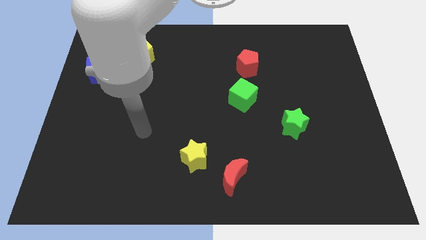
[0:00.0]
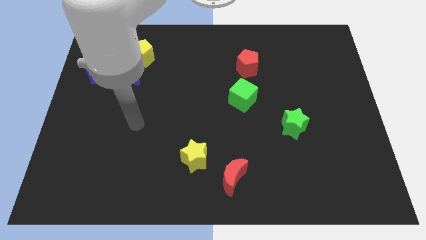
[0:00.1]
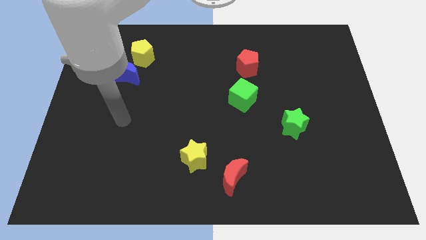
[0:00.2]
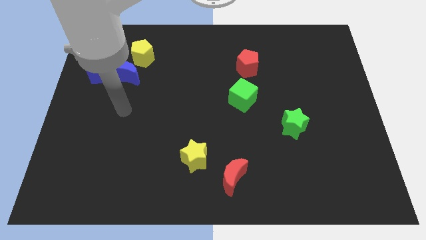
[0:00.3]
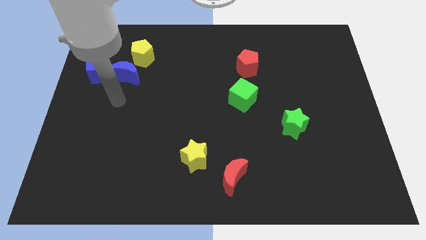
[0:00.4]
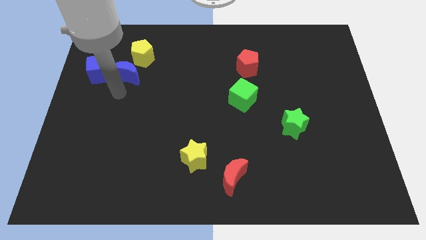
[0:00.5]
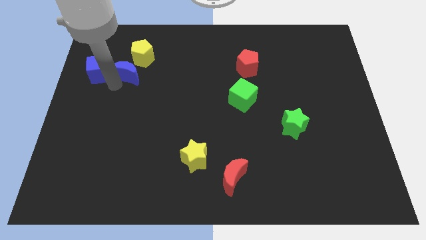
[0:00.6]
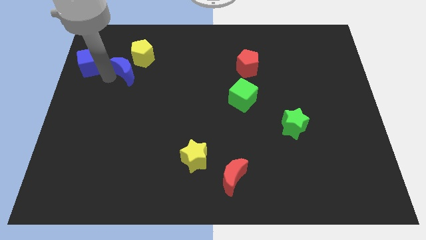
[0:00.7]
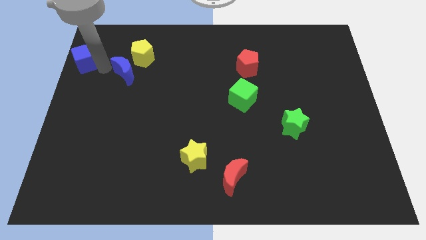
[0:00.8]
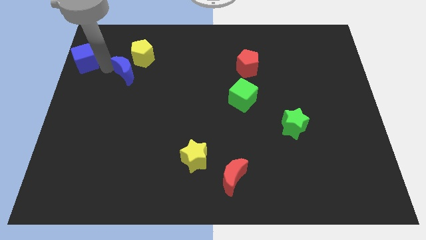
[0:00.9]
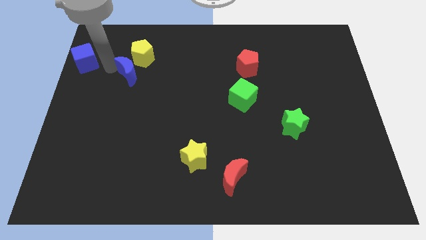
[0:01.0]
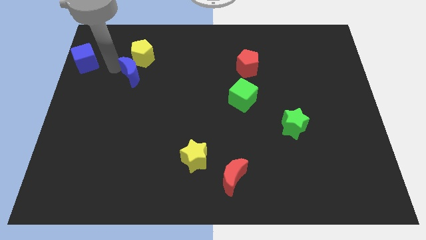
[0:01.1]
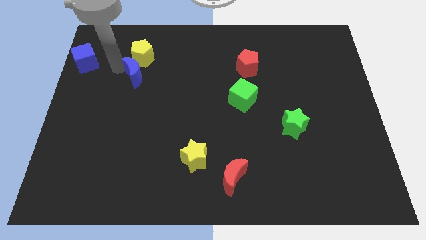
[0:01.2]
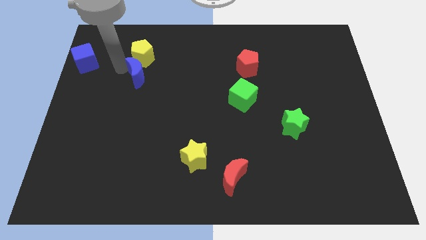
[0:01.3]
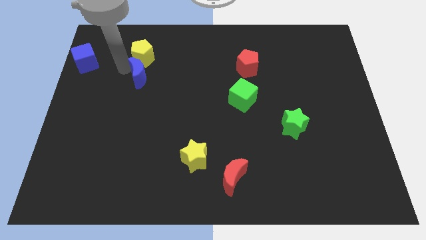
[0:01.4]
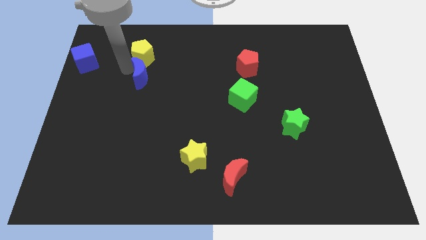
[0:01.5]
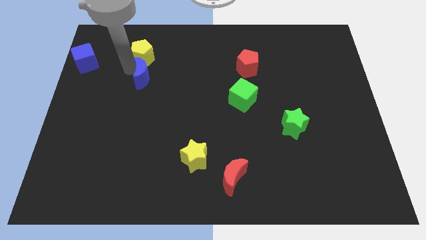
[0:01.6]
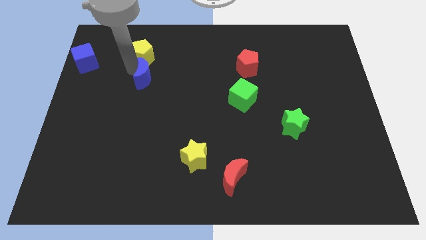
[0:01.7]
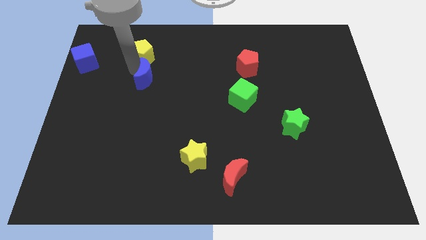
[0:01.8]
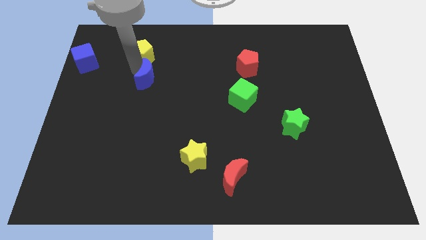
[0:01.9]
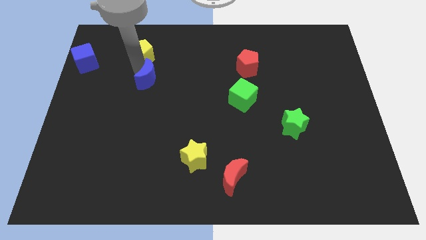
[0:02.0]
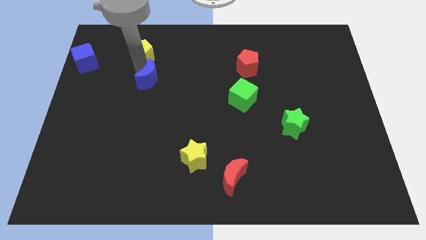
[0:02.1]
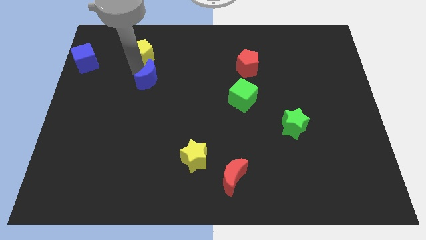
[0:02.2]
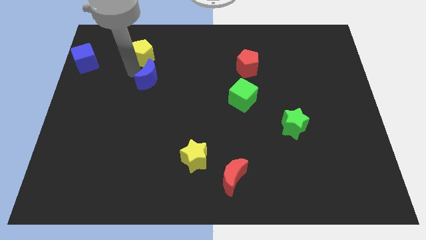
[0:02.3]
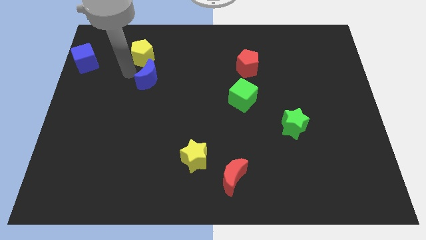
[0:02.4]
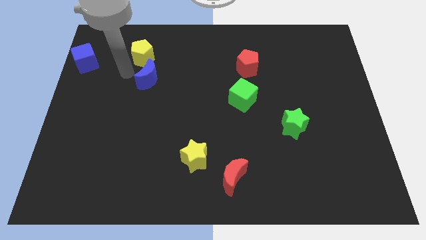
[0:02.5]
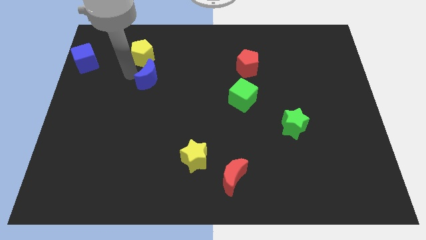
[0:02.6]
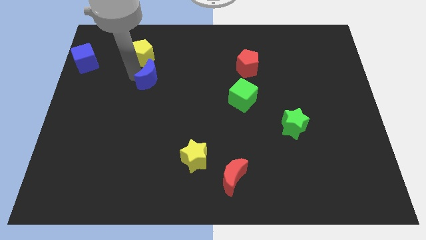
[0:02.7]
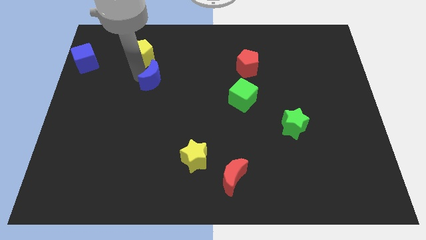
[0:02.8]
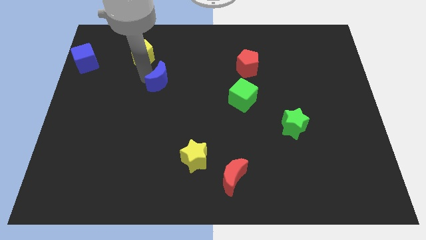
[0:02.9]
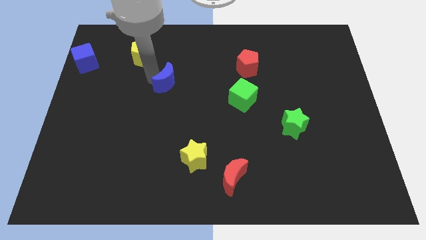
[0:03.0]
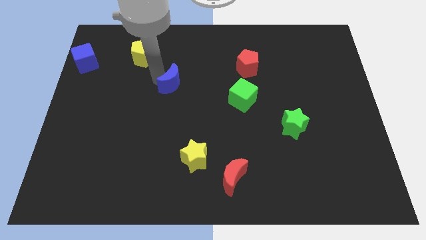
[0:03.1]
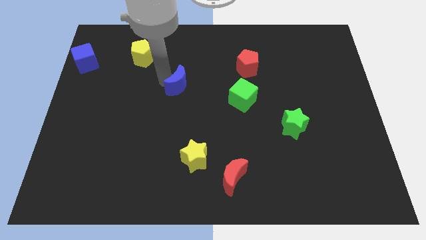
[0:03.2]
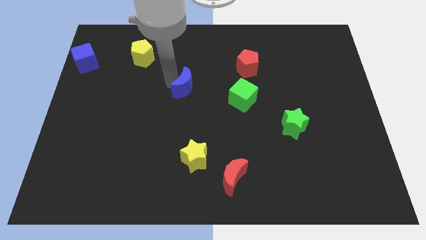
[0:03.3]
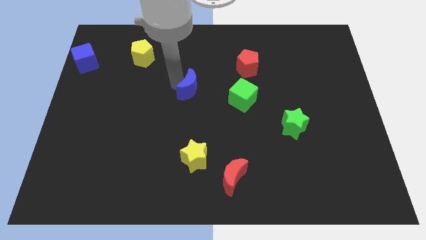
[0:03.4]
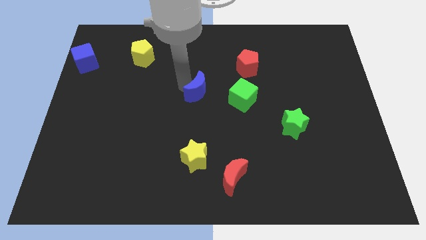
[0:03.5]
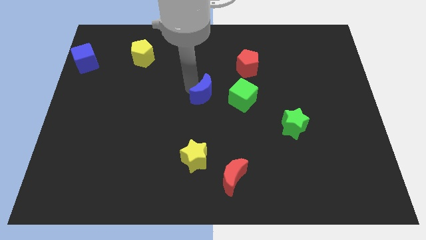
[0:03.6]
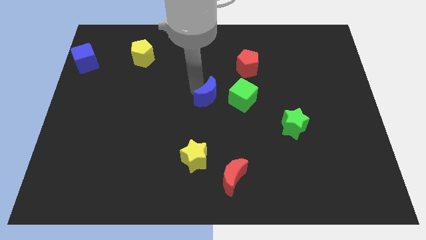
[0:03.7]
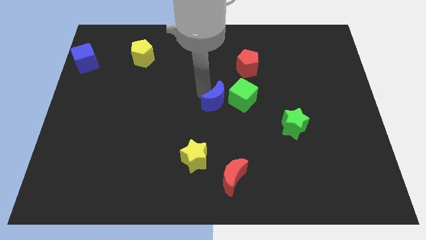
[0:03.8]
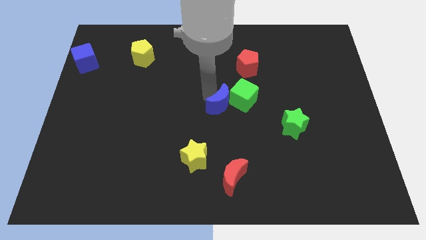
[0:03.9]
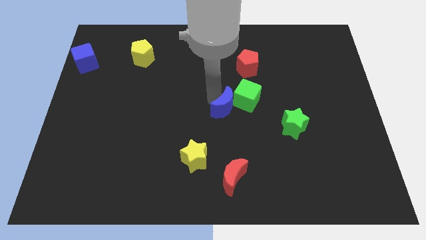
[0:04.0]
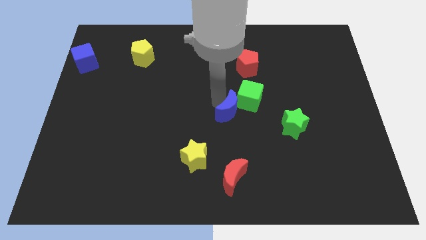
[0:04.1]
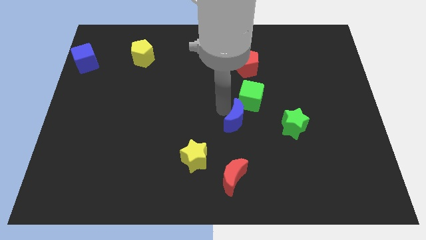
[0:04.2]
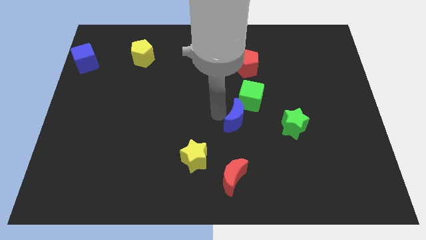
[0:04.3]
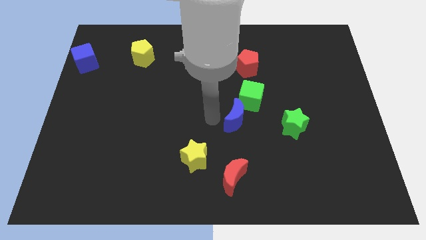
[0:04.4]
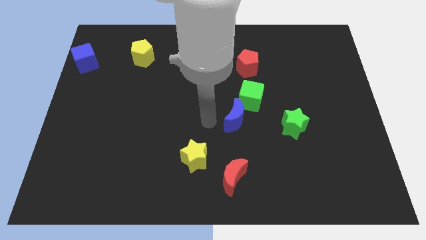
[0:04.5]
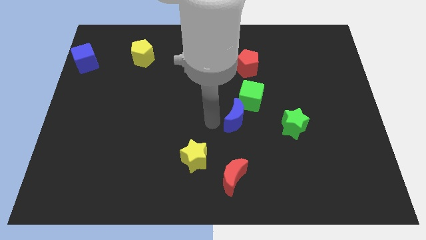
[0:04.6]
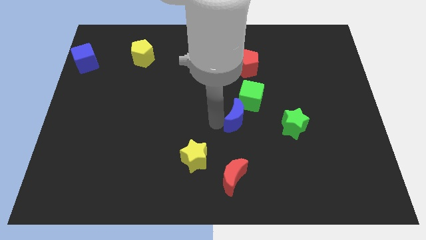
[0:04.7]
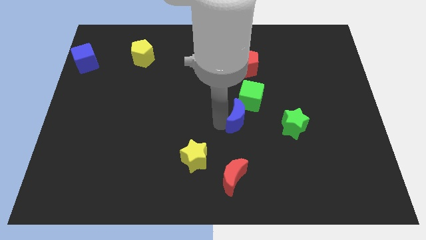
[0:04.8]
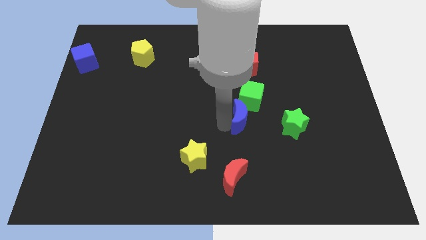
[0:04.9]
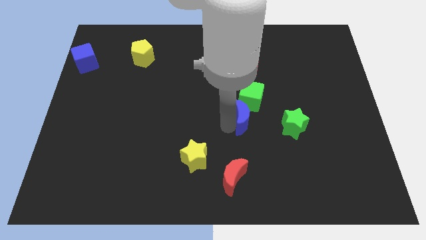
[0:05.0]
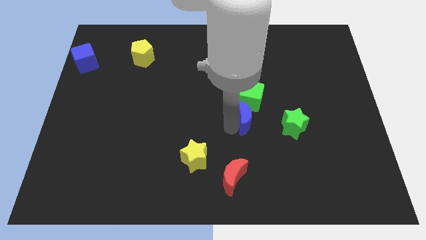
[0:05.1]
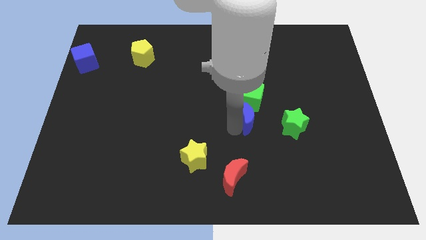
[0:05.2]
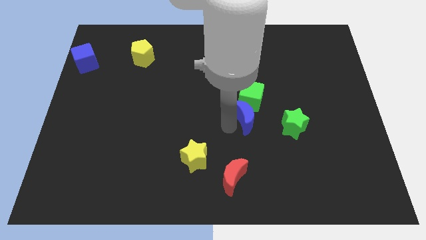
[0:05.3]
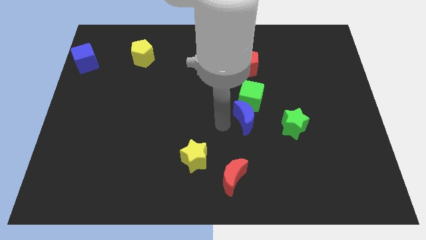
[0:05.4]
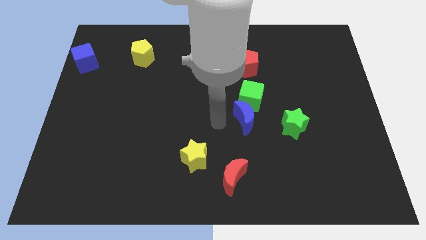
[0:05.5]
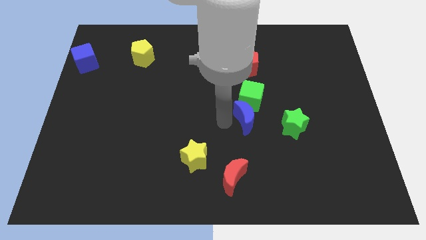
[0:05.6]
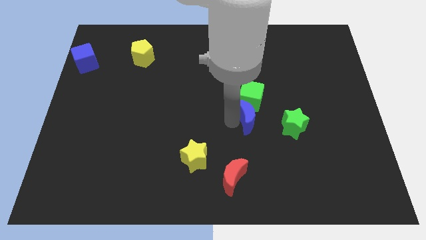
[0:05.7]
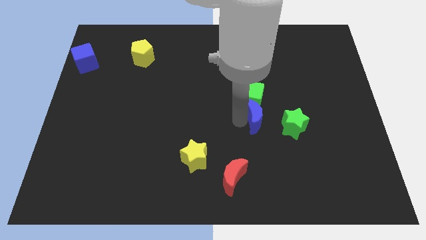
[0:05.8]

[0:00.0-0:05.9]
push the blue moon to the bottom right side of the green cube

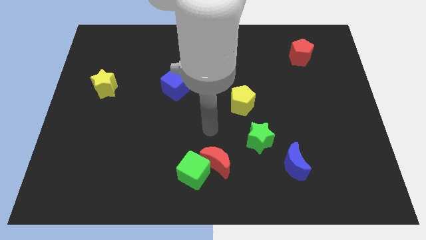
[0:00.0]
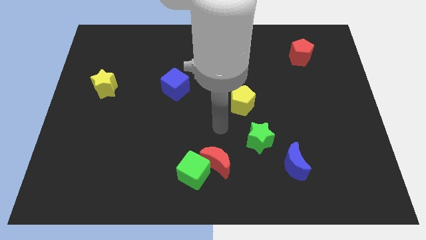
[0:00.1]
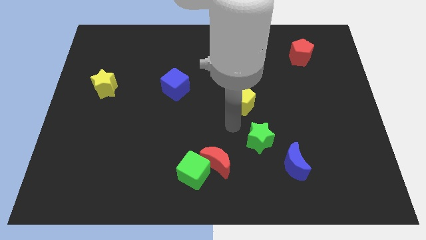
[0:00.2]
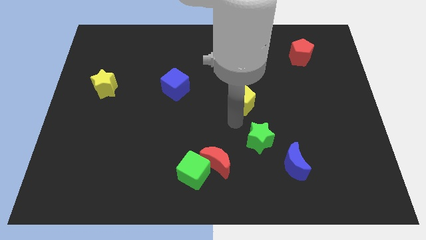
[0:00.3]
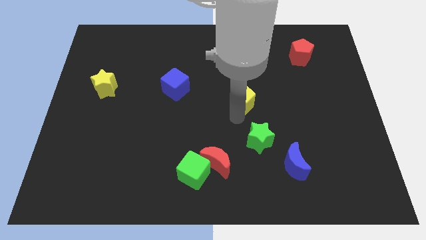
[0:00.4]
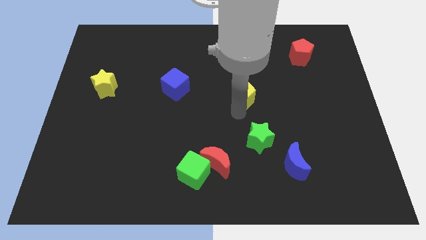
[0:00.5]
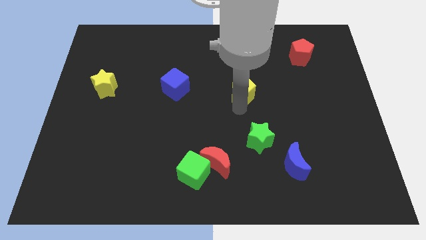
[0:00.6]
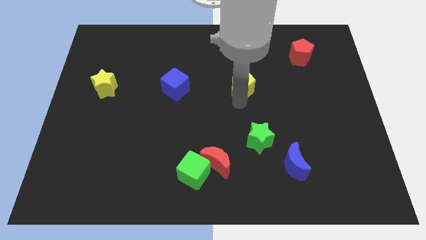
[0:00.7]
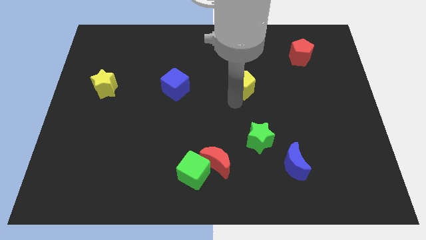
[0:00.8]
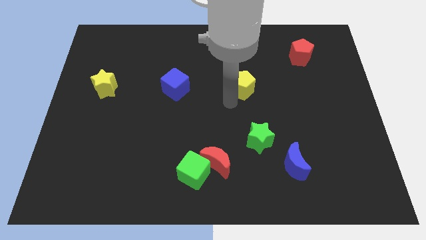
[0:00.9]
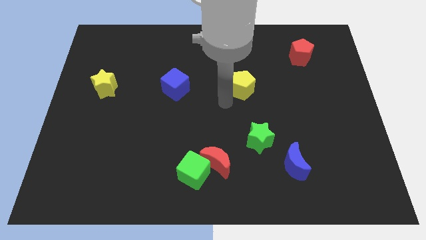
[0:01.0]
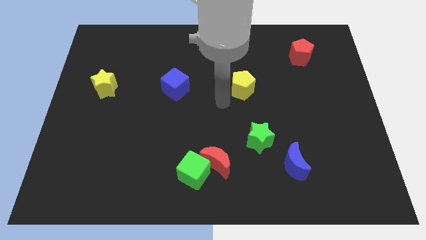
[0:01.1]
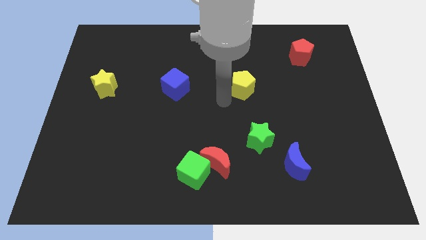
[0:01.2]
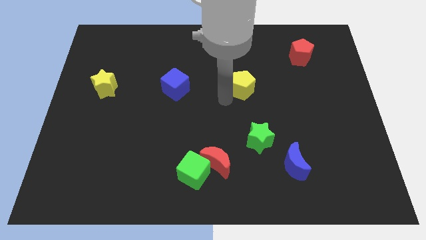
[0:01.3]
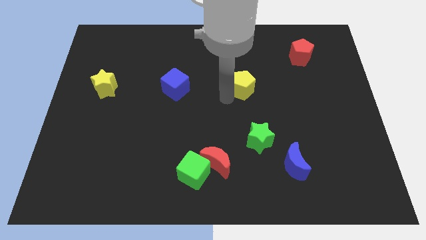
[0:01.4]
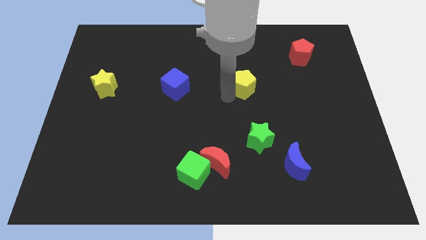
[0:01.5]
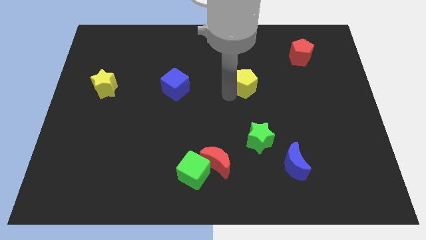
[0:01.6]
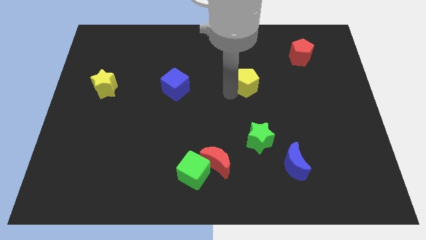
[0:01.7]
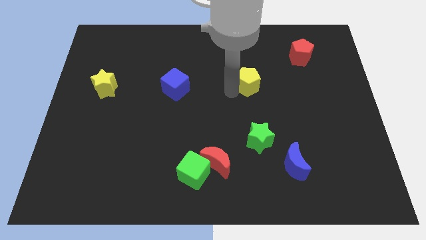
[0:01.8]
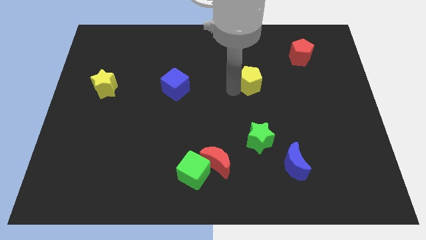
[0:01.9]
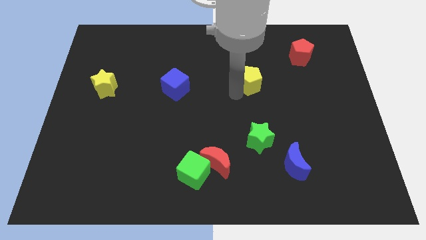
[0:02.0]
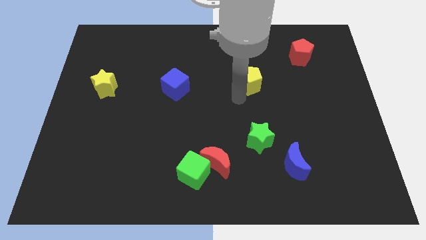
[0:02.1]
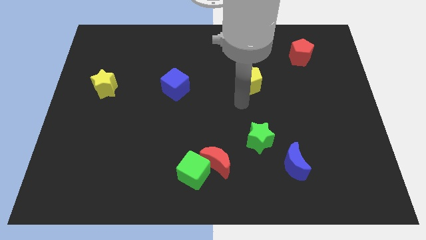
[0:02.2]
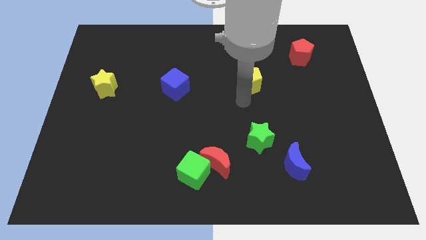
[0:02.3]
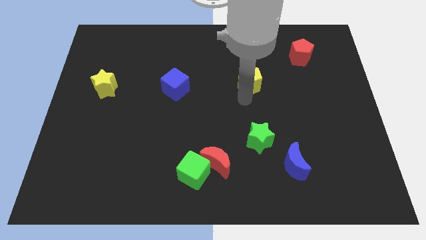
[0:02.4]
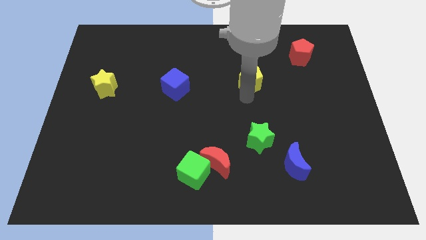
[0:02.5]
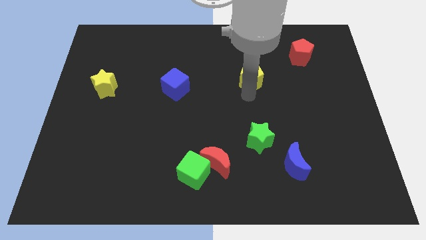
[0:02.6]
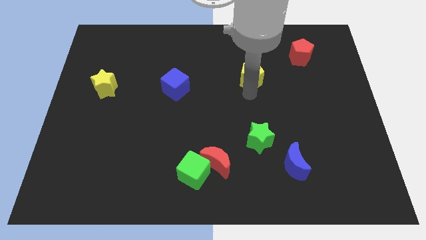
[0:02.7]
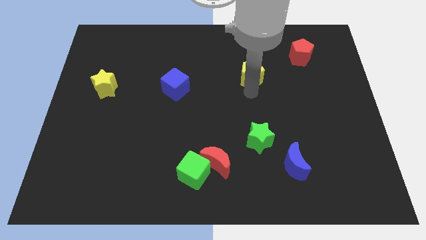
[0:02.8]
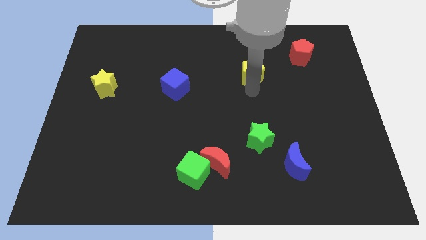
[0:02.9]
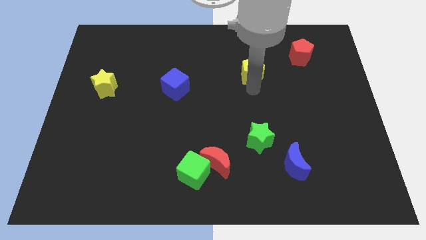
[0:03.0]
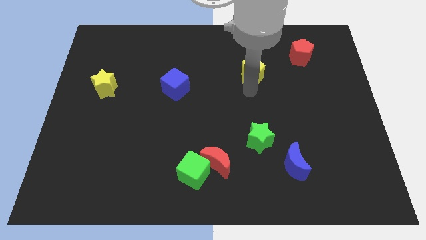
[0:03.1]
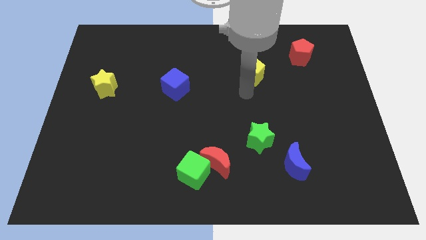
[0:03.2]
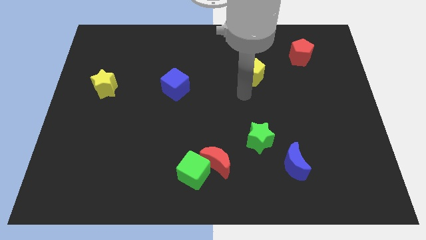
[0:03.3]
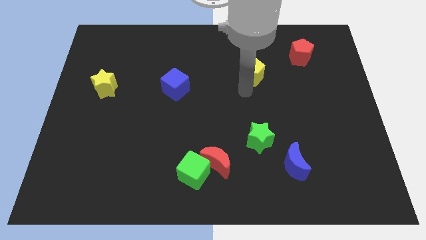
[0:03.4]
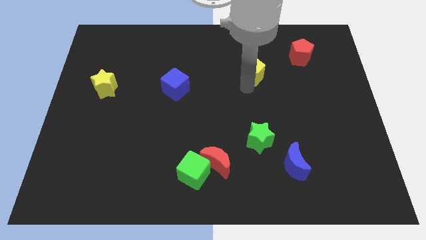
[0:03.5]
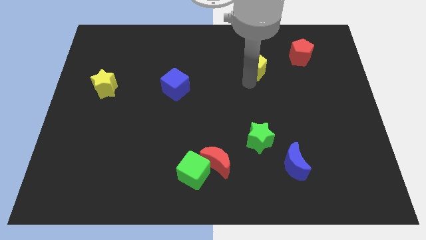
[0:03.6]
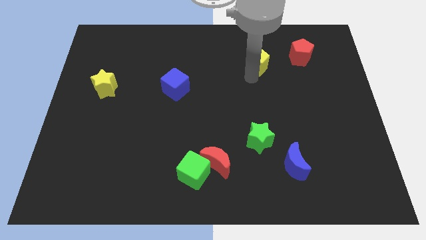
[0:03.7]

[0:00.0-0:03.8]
slide the yellow pentagon left of the red pentagon
